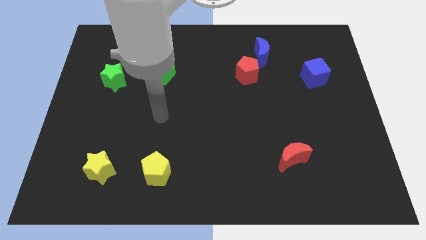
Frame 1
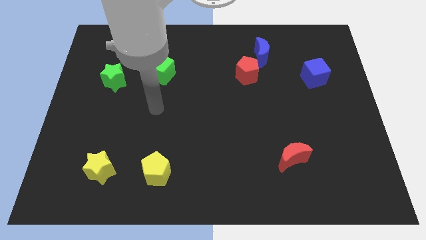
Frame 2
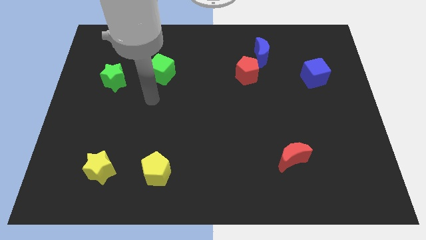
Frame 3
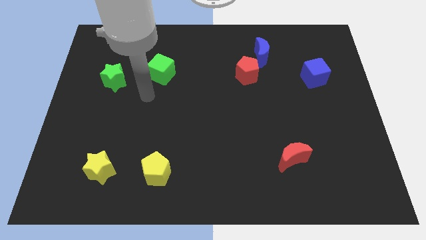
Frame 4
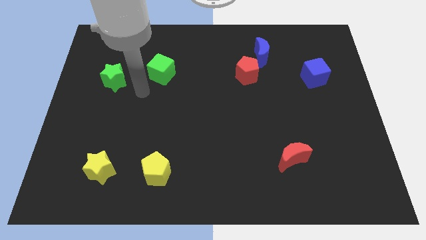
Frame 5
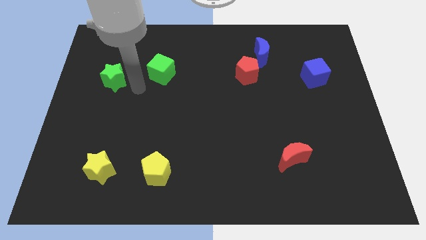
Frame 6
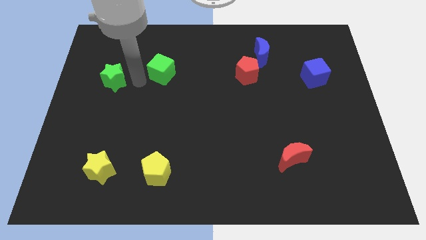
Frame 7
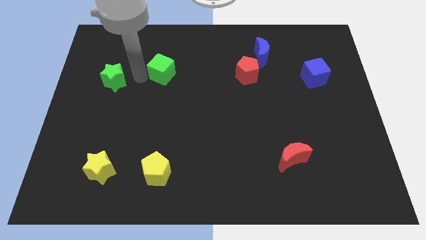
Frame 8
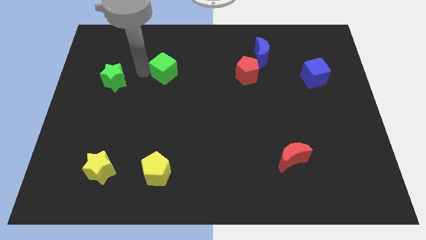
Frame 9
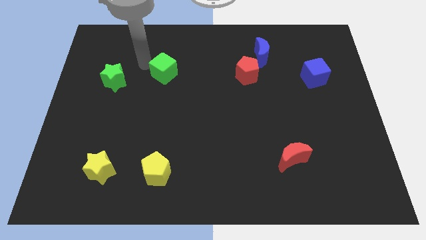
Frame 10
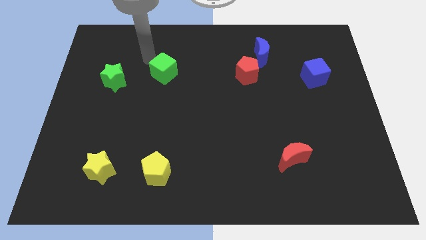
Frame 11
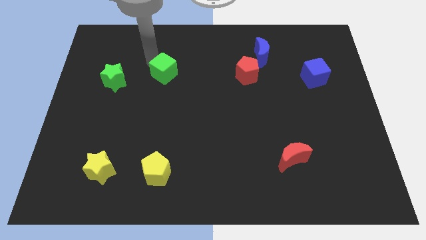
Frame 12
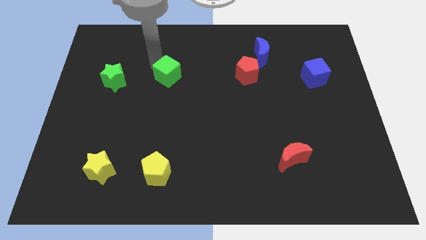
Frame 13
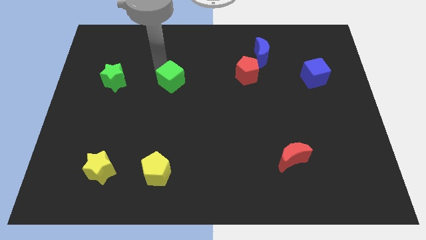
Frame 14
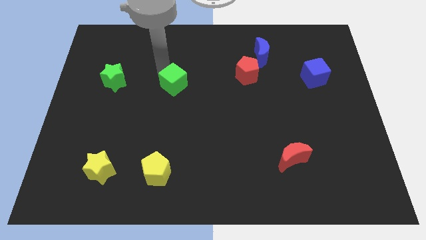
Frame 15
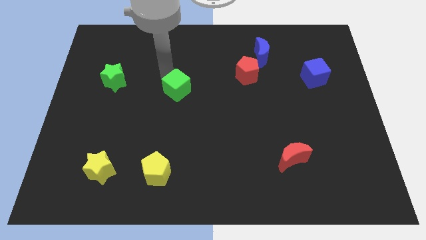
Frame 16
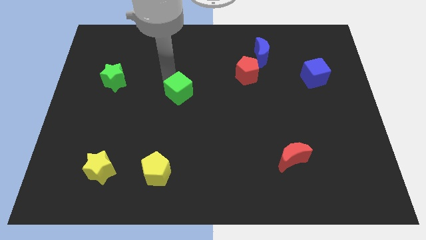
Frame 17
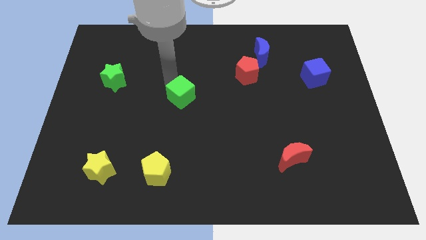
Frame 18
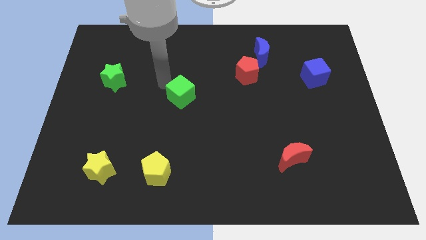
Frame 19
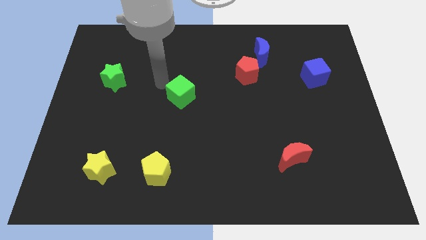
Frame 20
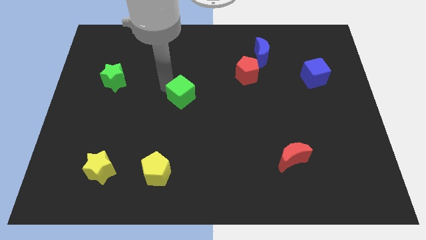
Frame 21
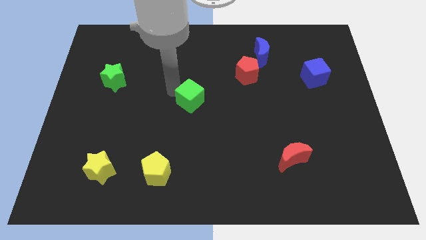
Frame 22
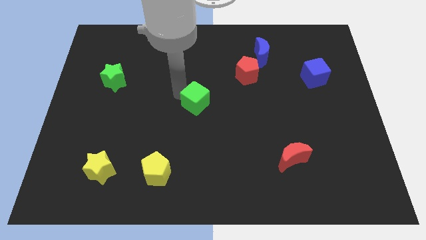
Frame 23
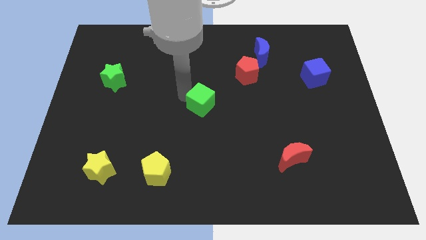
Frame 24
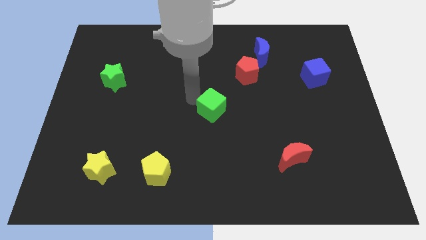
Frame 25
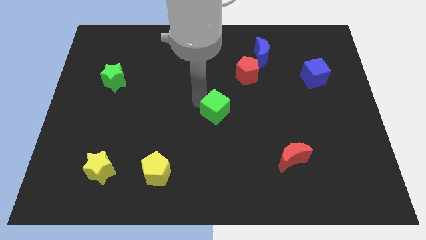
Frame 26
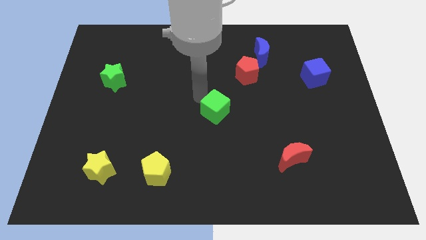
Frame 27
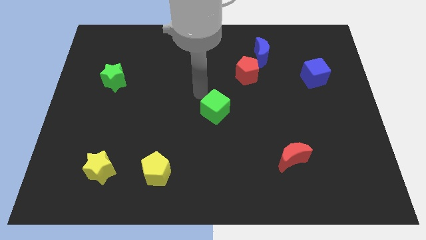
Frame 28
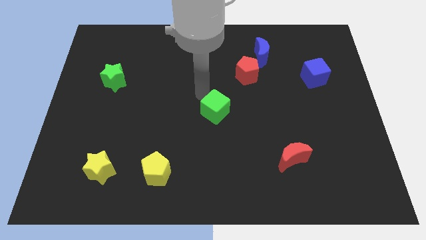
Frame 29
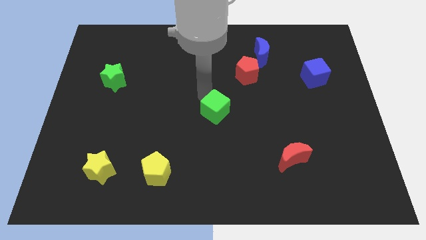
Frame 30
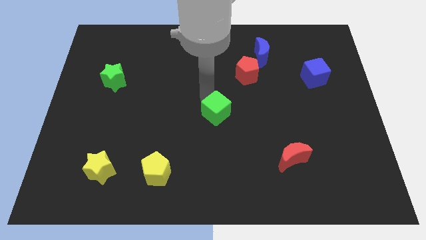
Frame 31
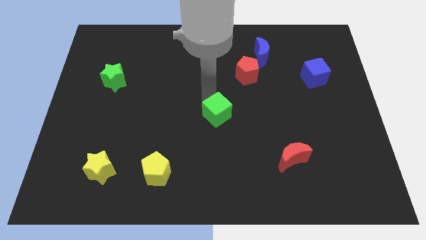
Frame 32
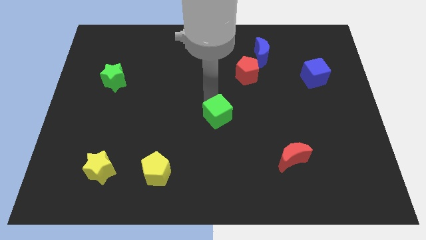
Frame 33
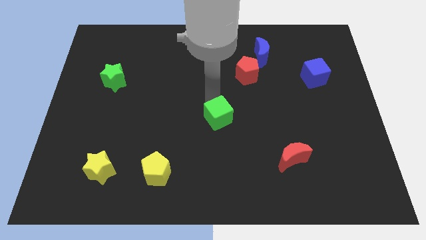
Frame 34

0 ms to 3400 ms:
slide the green cube down and to the right diagonally

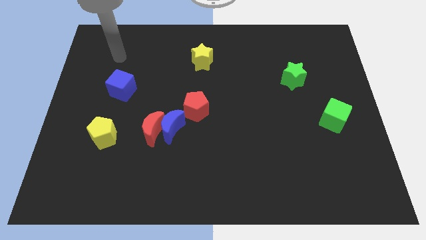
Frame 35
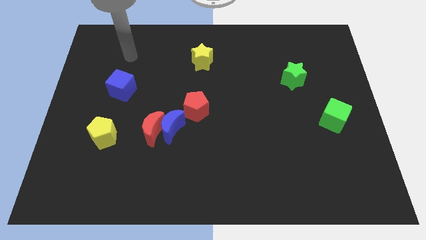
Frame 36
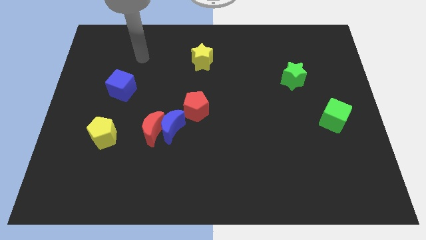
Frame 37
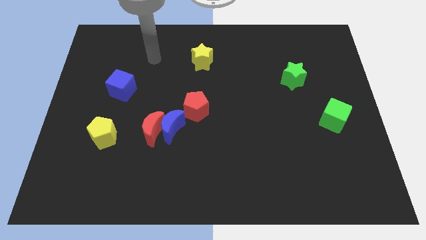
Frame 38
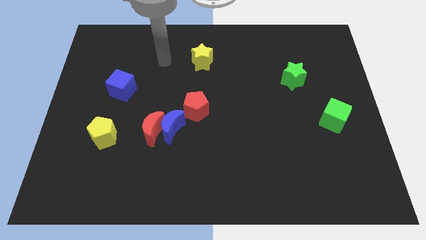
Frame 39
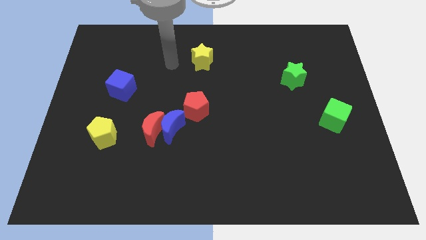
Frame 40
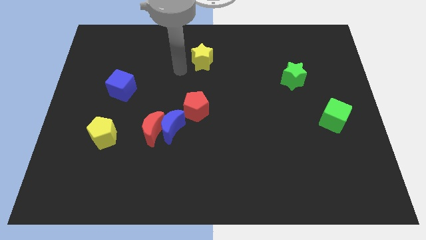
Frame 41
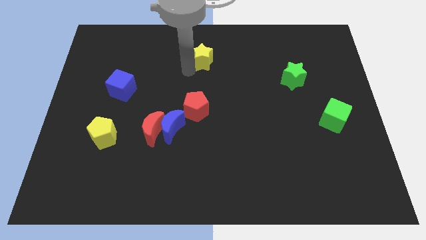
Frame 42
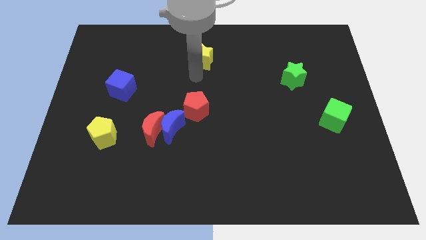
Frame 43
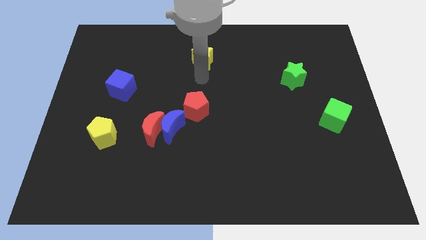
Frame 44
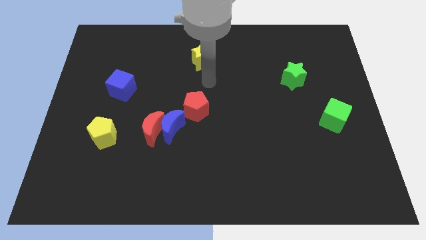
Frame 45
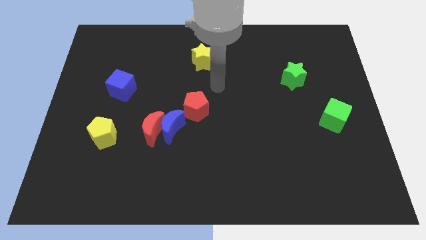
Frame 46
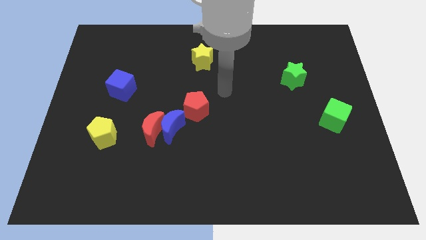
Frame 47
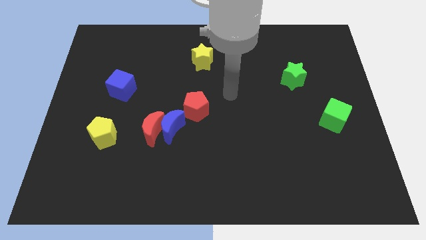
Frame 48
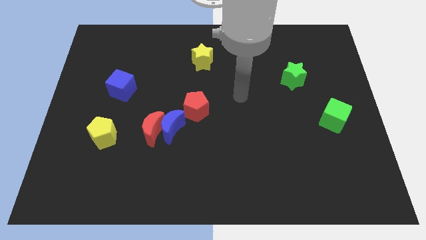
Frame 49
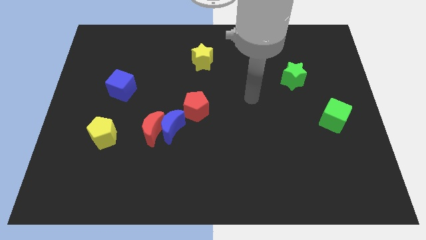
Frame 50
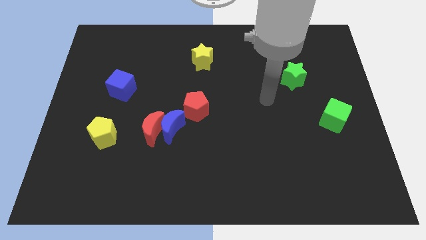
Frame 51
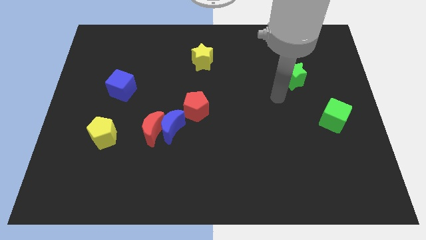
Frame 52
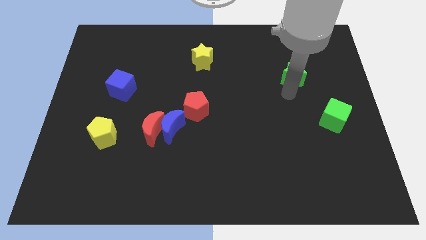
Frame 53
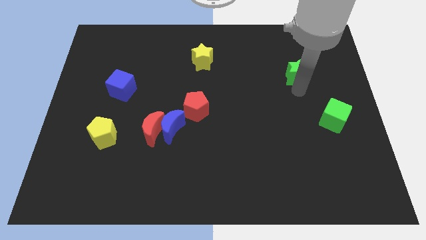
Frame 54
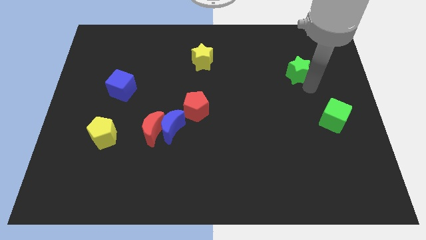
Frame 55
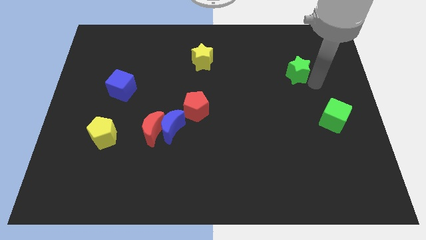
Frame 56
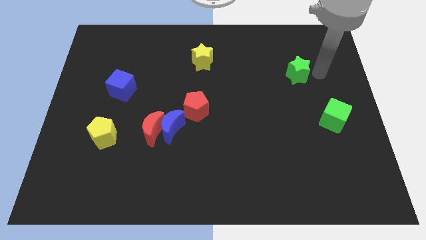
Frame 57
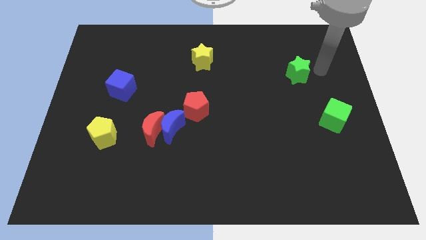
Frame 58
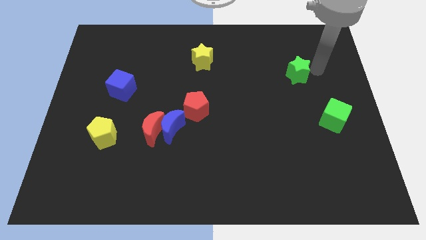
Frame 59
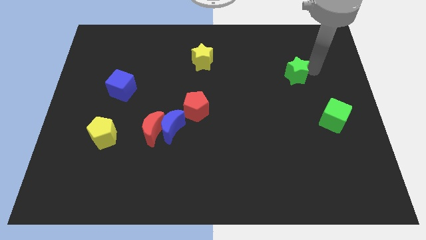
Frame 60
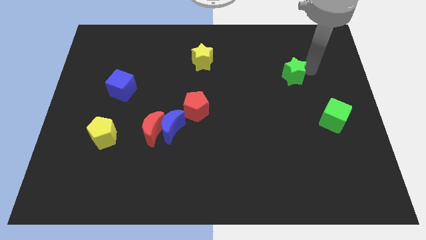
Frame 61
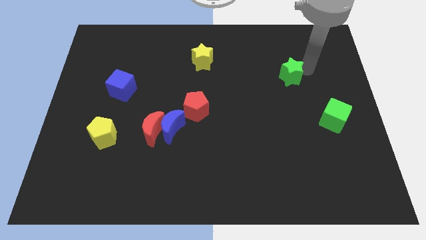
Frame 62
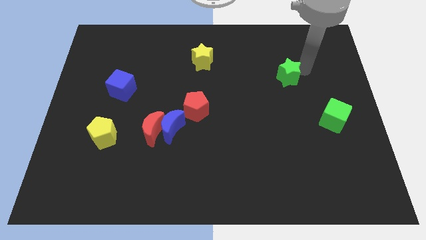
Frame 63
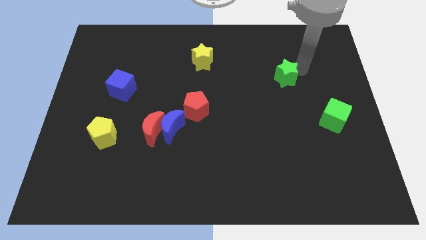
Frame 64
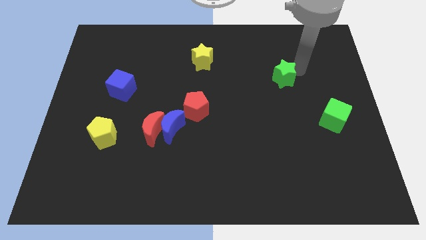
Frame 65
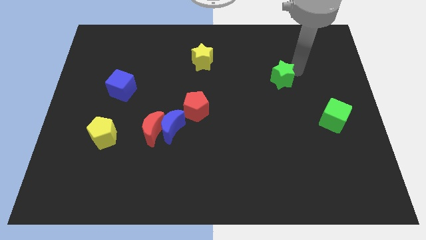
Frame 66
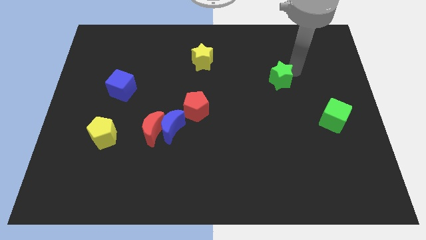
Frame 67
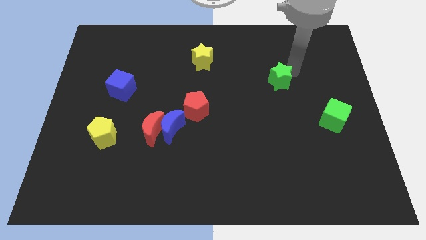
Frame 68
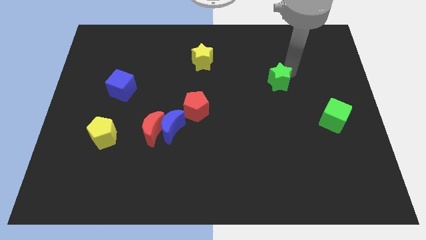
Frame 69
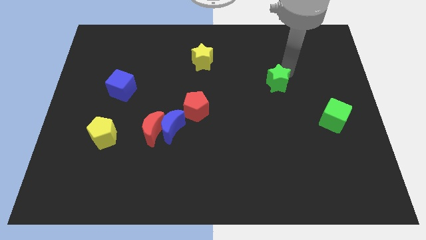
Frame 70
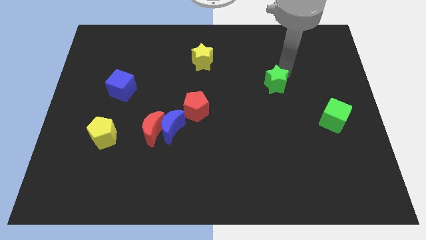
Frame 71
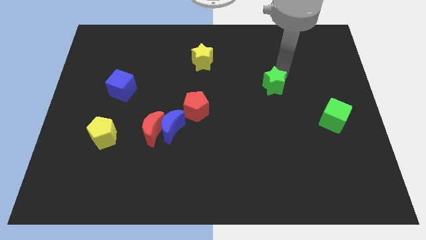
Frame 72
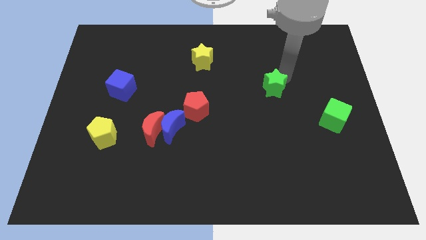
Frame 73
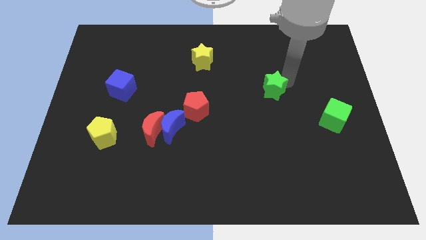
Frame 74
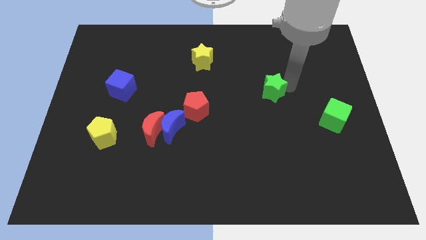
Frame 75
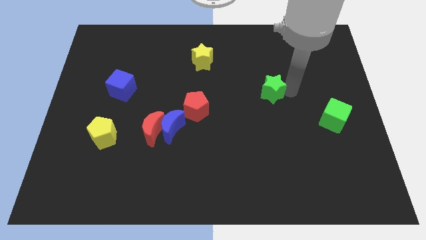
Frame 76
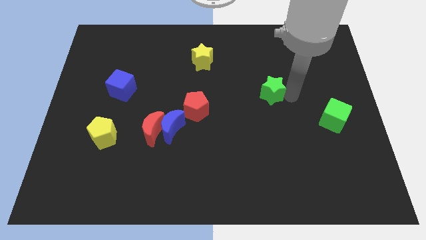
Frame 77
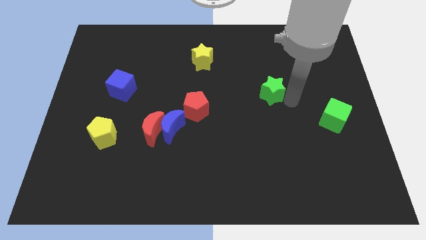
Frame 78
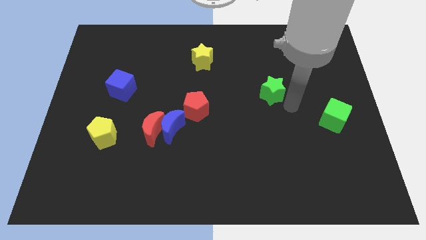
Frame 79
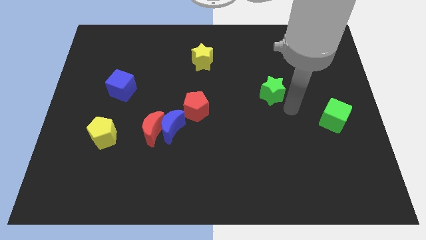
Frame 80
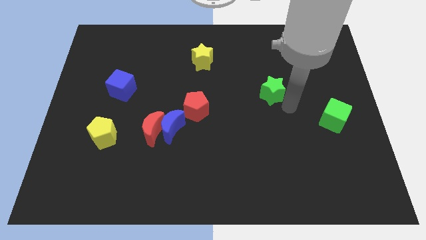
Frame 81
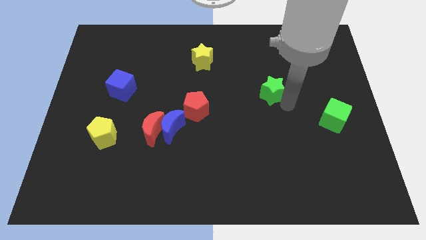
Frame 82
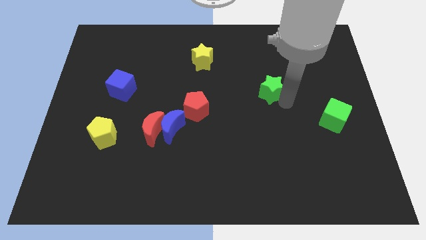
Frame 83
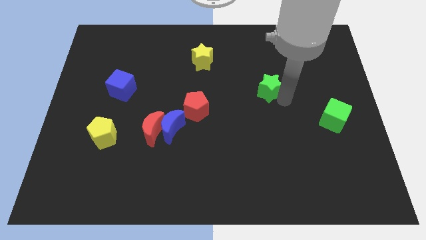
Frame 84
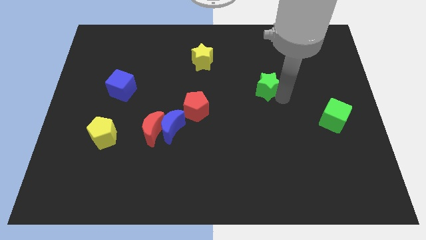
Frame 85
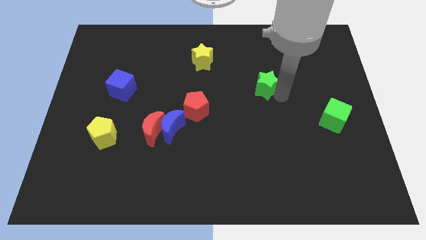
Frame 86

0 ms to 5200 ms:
push the green star a little to the left
